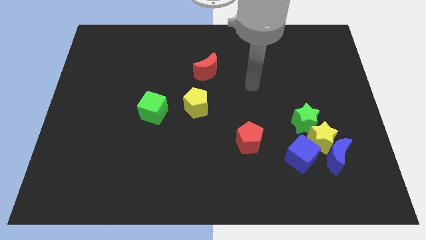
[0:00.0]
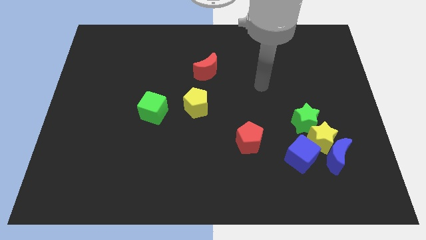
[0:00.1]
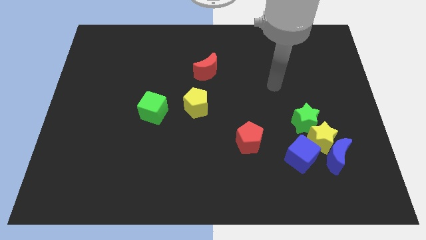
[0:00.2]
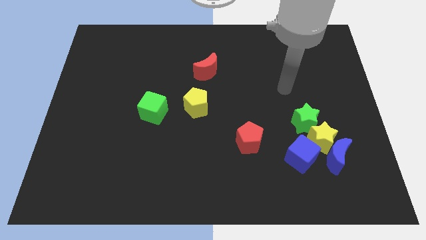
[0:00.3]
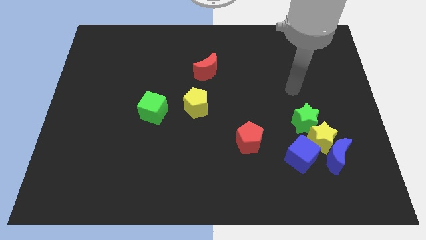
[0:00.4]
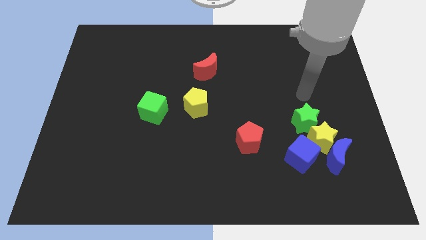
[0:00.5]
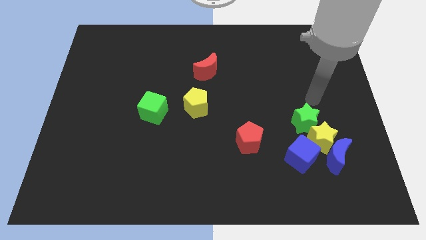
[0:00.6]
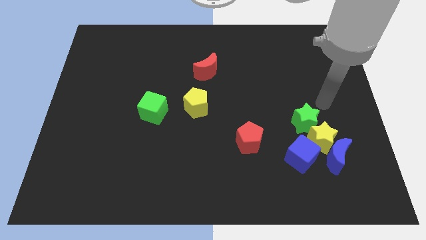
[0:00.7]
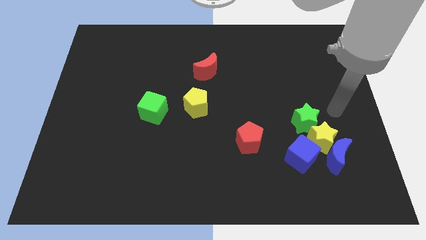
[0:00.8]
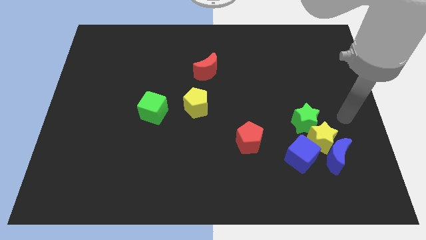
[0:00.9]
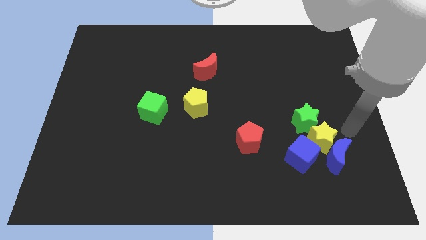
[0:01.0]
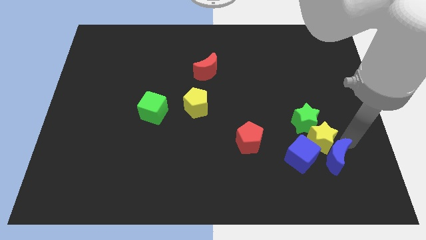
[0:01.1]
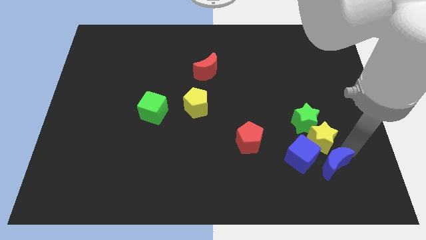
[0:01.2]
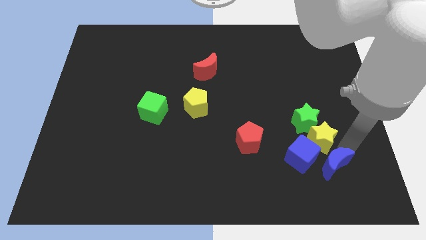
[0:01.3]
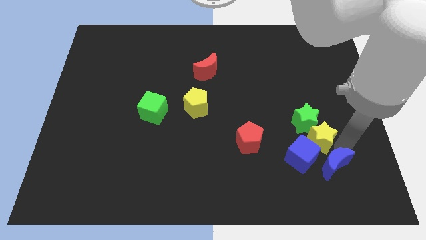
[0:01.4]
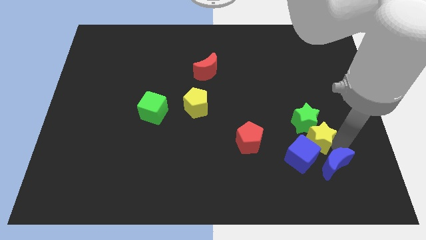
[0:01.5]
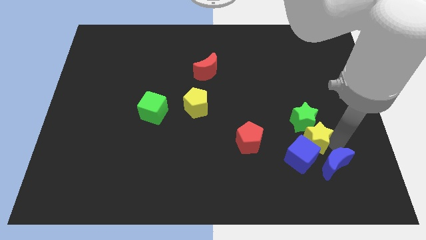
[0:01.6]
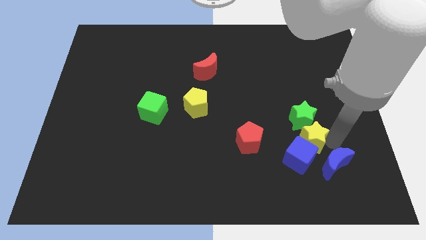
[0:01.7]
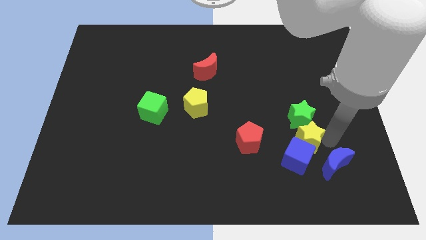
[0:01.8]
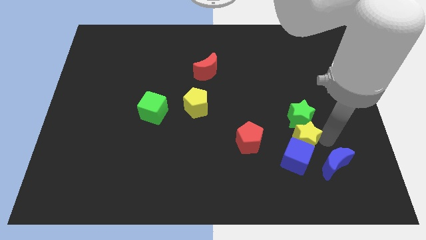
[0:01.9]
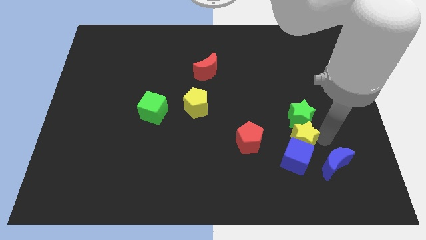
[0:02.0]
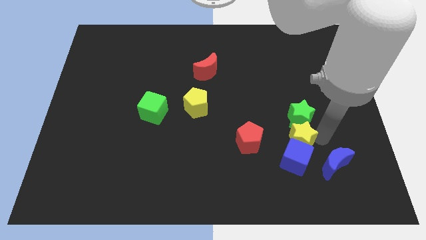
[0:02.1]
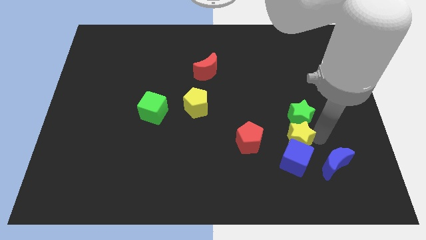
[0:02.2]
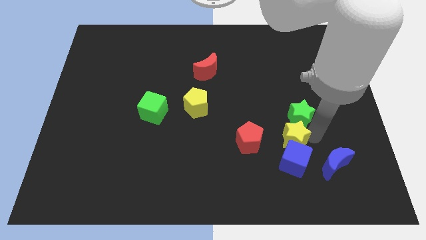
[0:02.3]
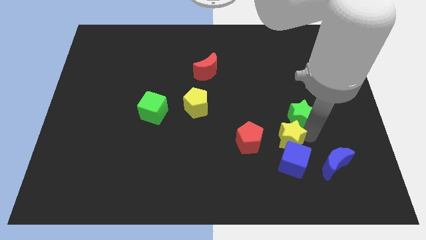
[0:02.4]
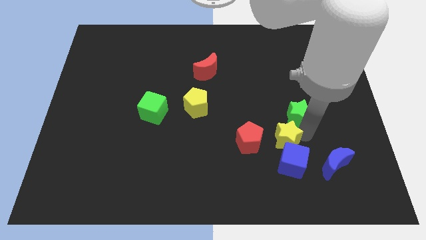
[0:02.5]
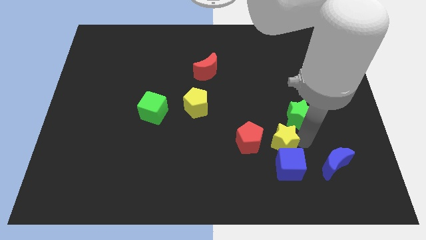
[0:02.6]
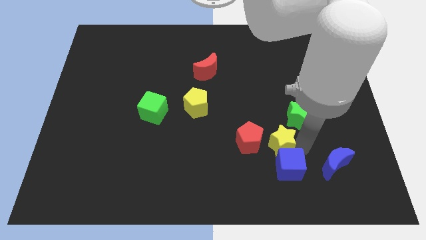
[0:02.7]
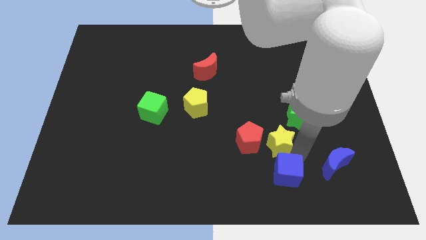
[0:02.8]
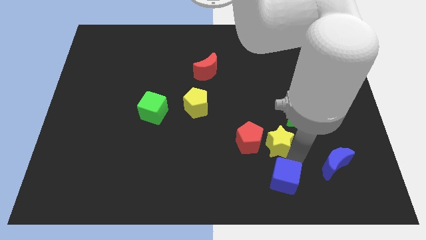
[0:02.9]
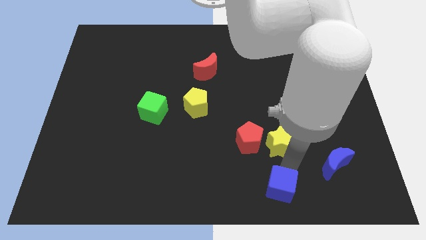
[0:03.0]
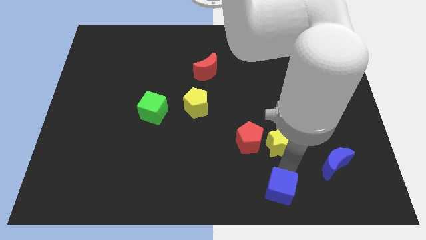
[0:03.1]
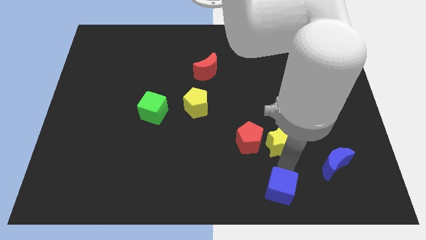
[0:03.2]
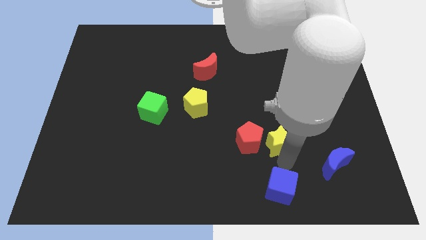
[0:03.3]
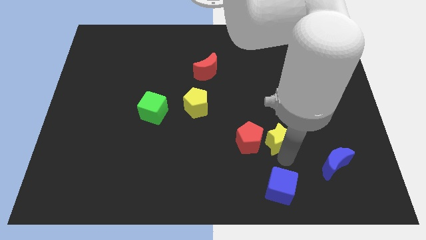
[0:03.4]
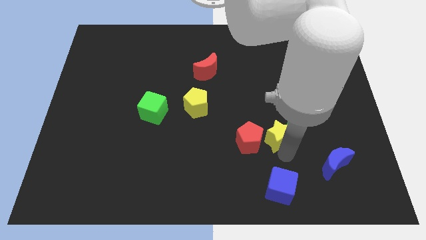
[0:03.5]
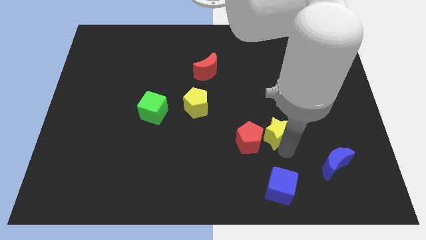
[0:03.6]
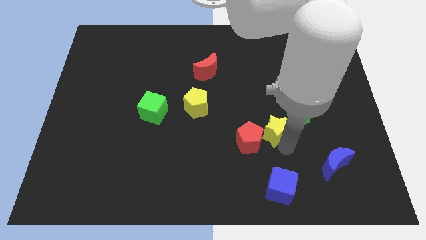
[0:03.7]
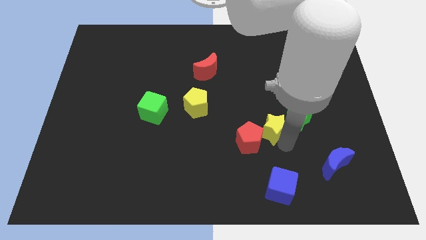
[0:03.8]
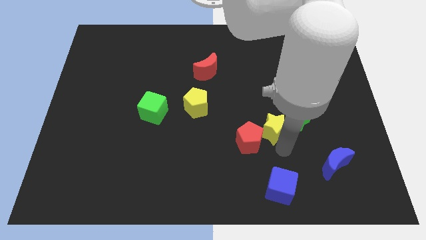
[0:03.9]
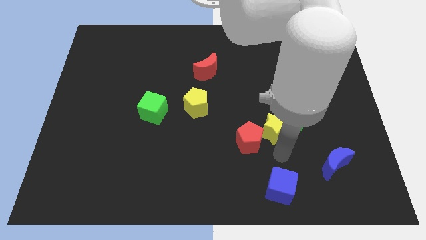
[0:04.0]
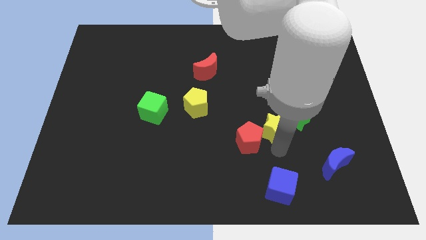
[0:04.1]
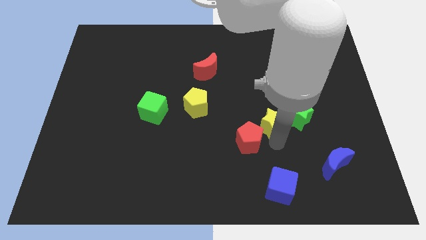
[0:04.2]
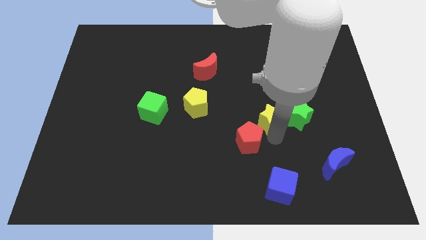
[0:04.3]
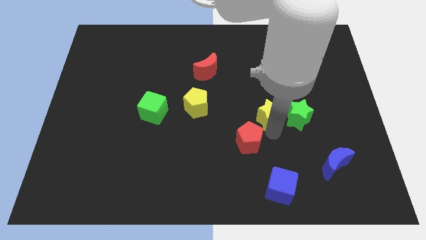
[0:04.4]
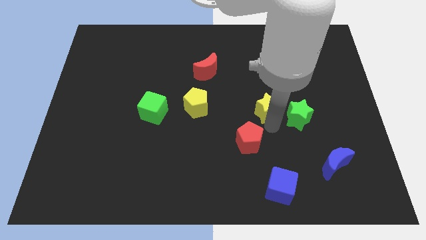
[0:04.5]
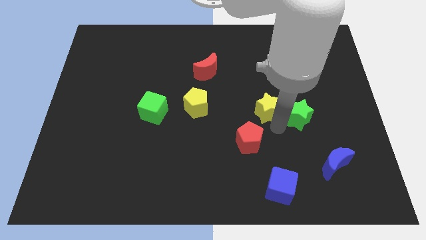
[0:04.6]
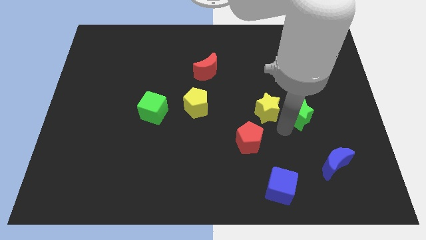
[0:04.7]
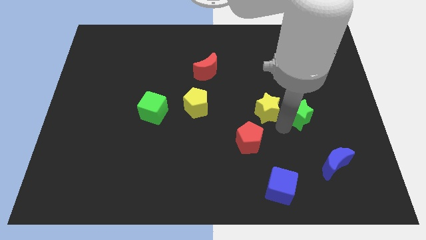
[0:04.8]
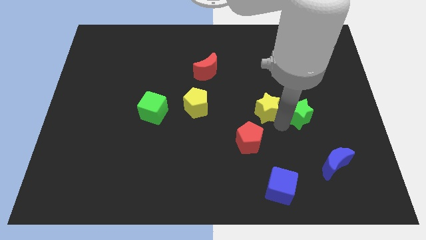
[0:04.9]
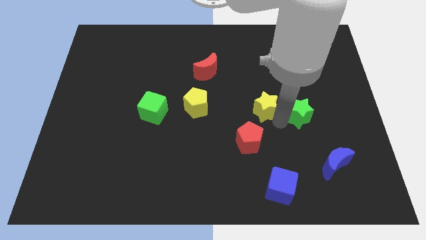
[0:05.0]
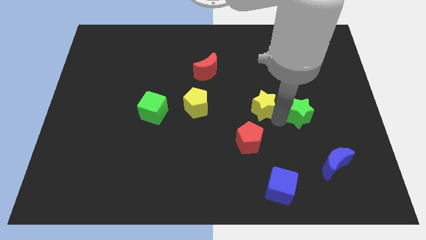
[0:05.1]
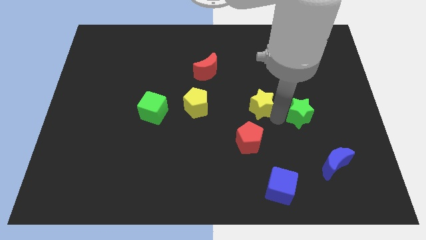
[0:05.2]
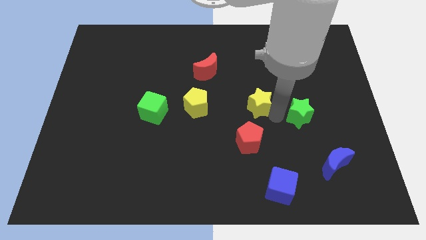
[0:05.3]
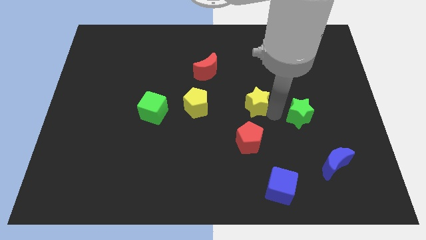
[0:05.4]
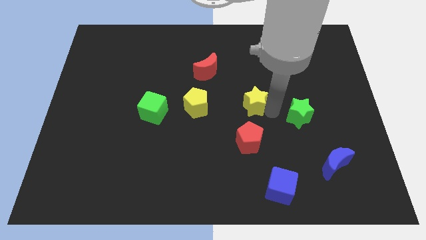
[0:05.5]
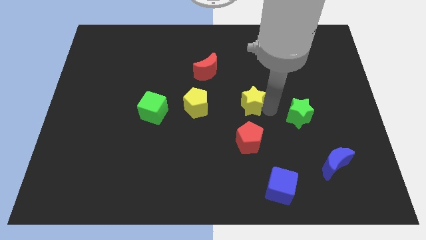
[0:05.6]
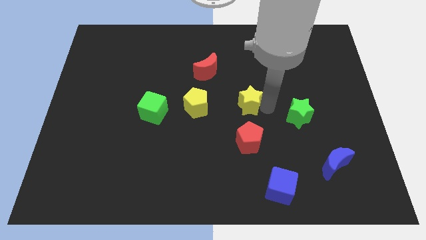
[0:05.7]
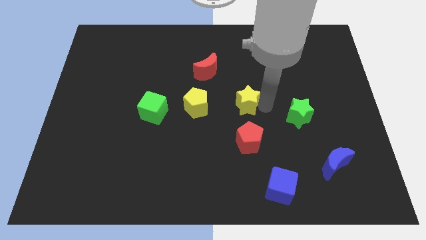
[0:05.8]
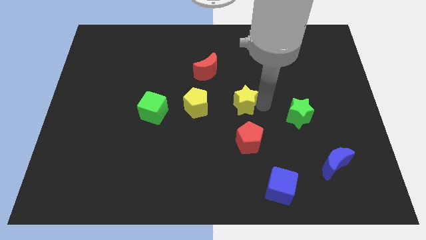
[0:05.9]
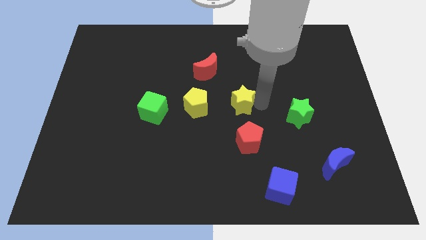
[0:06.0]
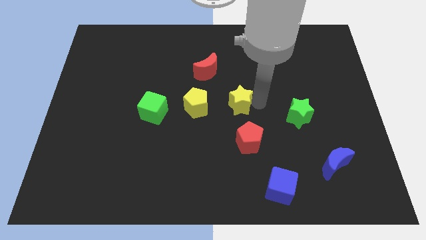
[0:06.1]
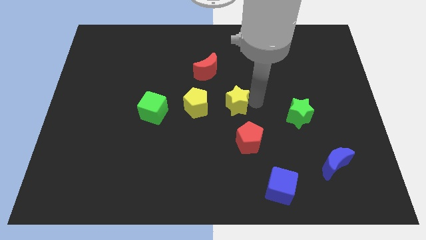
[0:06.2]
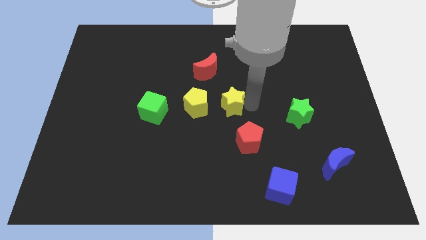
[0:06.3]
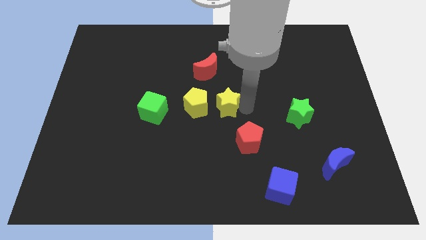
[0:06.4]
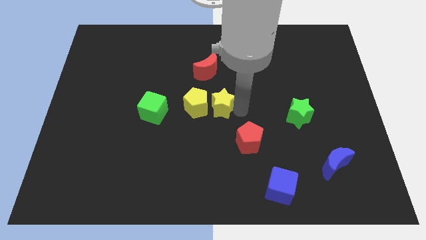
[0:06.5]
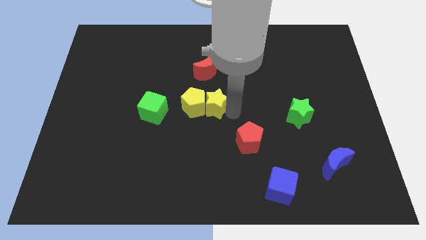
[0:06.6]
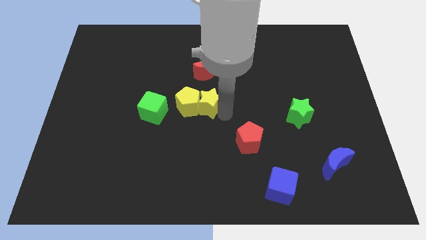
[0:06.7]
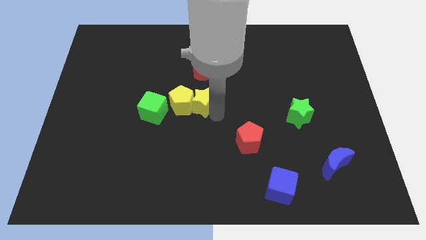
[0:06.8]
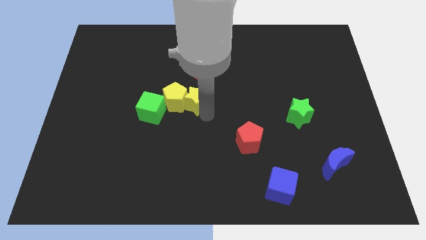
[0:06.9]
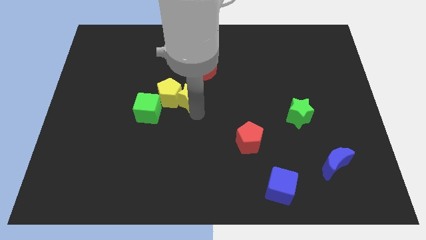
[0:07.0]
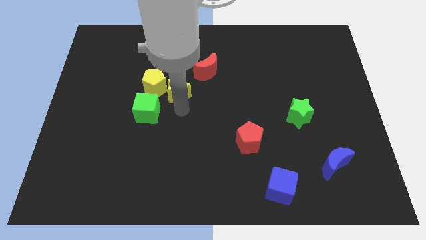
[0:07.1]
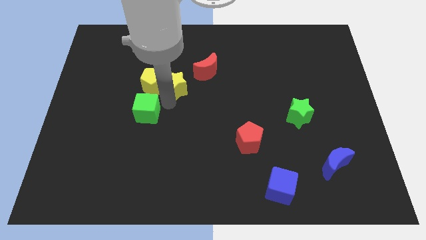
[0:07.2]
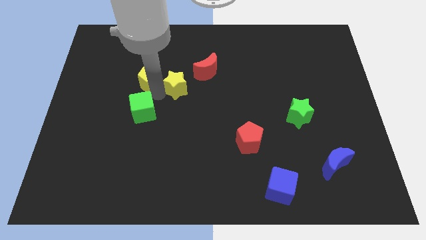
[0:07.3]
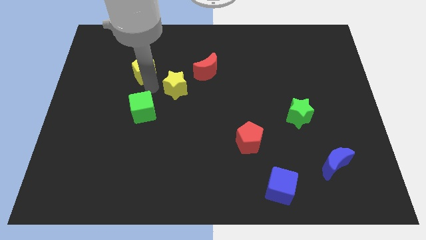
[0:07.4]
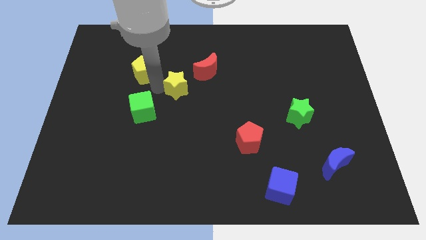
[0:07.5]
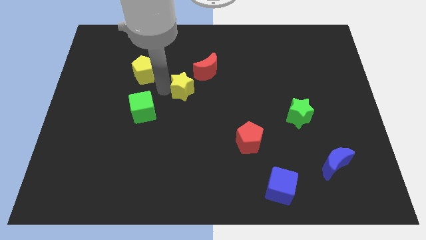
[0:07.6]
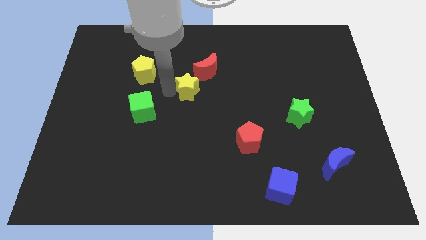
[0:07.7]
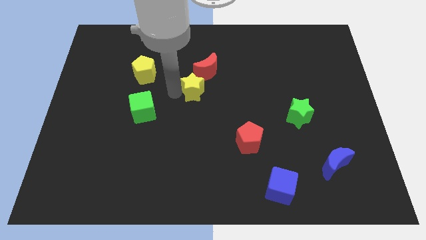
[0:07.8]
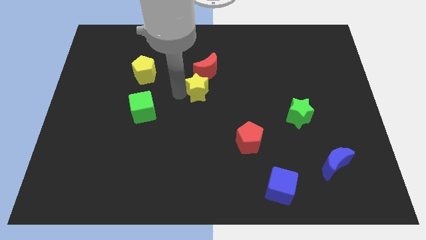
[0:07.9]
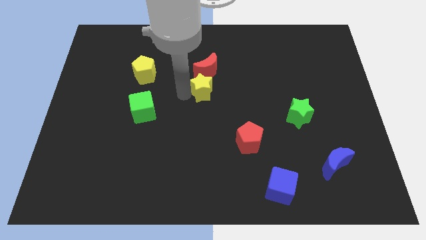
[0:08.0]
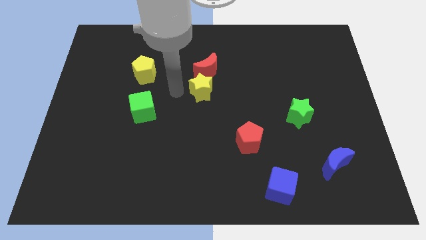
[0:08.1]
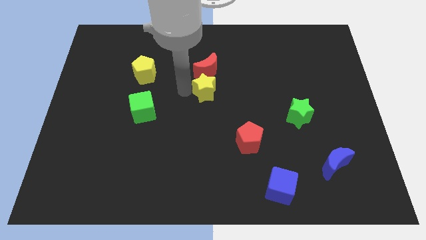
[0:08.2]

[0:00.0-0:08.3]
move the yellow star to the red moon
